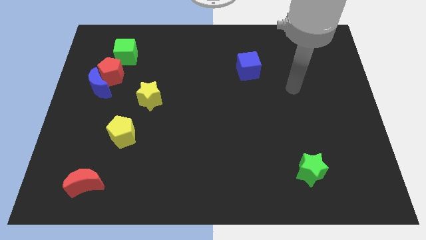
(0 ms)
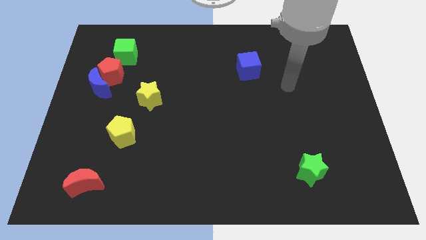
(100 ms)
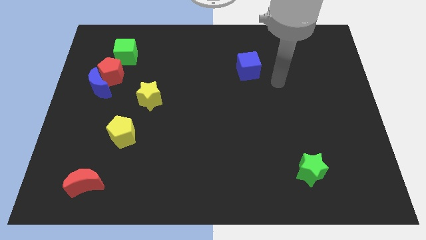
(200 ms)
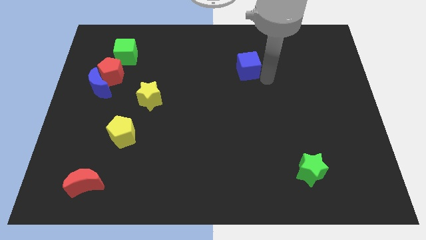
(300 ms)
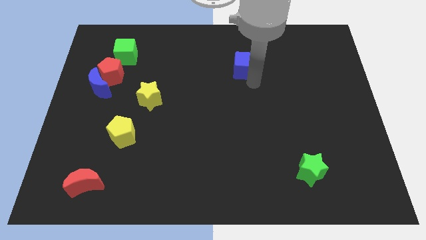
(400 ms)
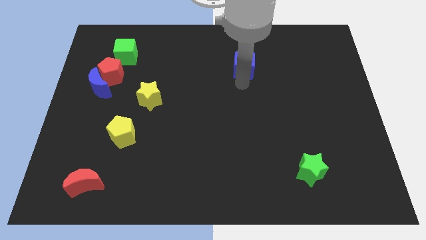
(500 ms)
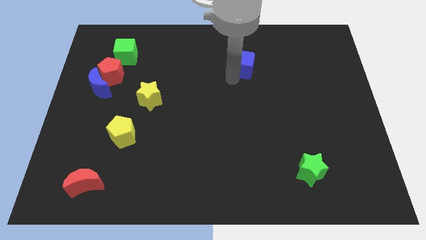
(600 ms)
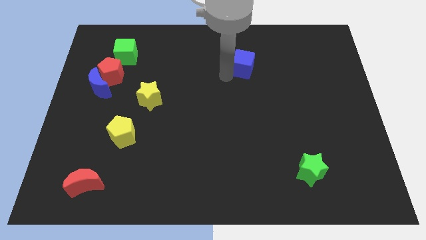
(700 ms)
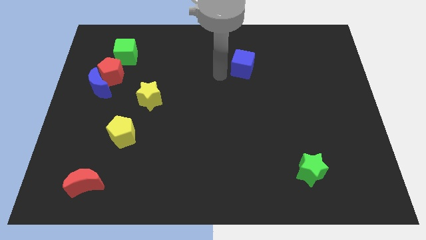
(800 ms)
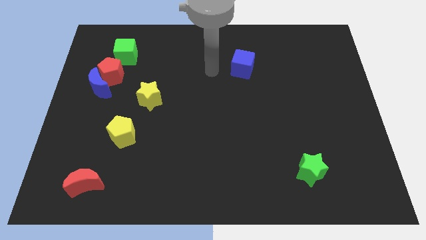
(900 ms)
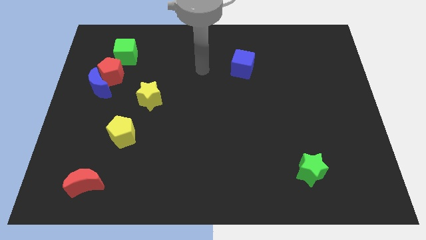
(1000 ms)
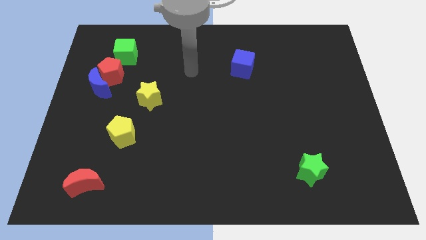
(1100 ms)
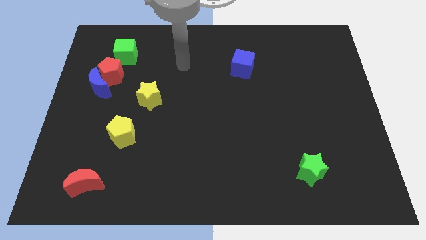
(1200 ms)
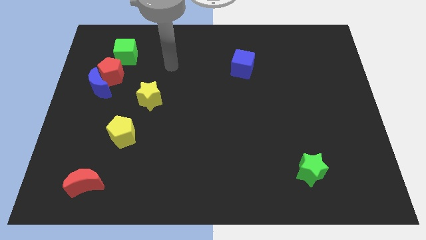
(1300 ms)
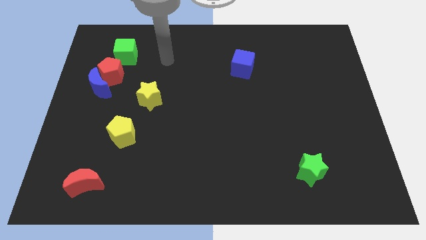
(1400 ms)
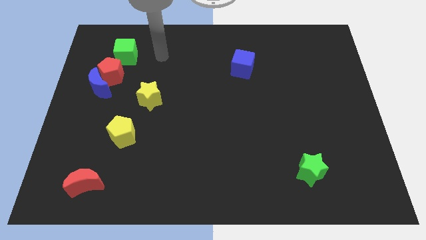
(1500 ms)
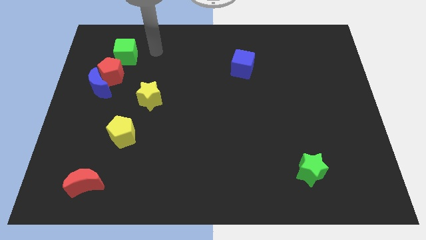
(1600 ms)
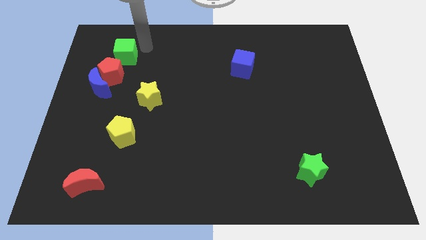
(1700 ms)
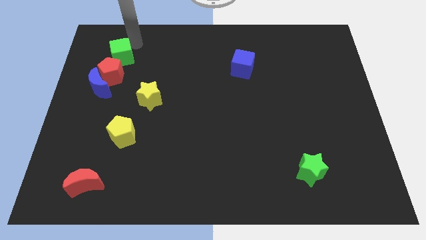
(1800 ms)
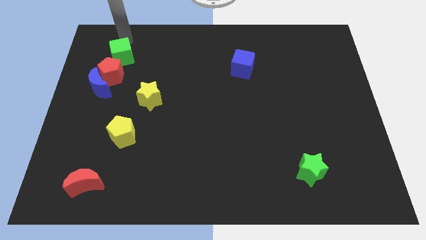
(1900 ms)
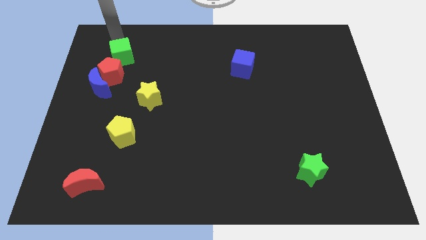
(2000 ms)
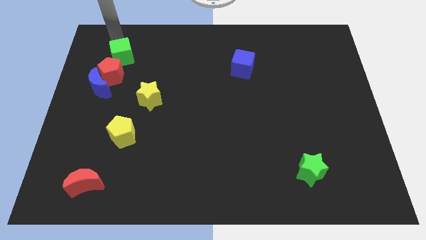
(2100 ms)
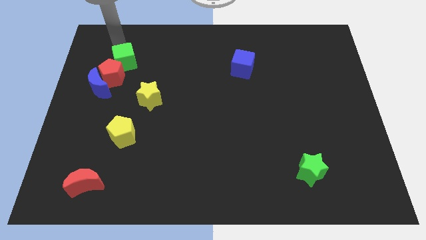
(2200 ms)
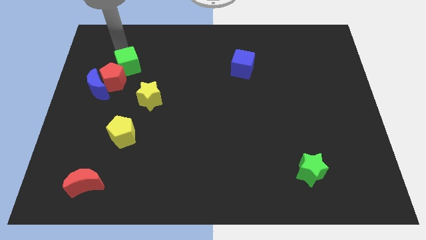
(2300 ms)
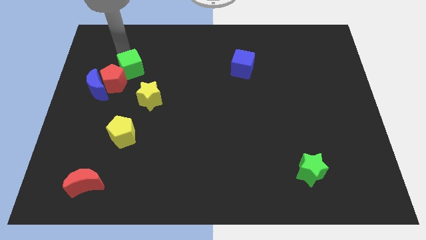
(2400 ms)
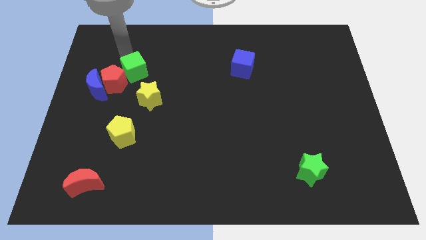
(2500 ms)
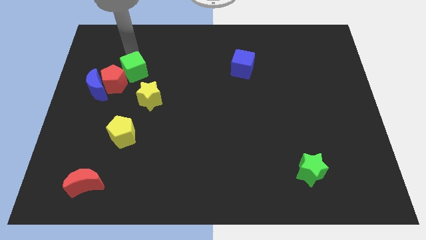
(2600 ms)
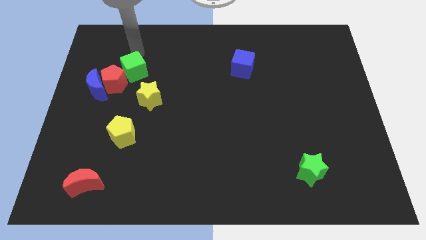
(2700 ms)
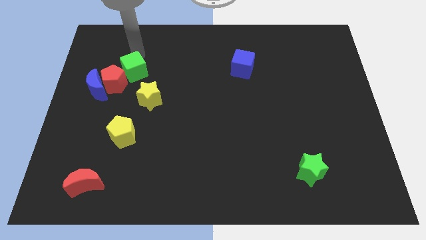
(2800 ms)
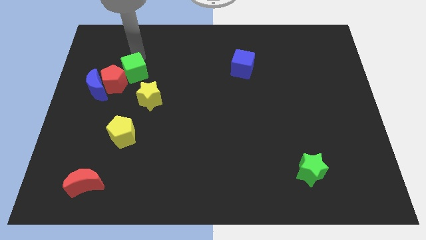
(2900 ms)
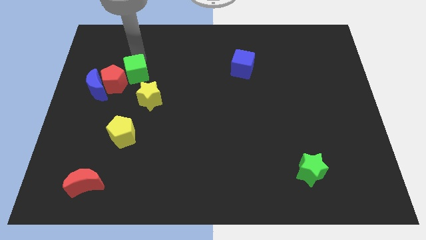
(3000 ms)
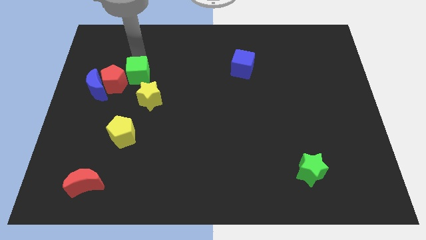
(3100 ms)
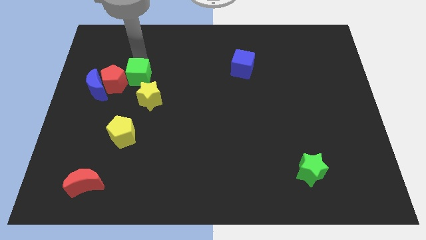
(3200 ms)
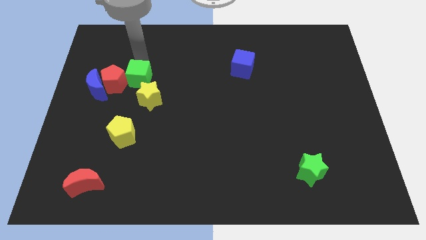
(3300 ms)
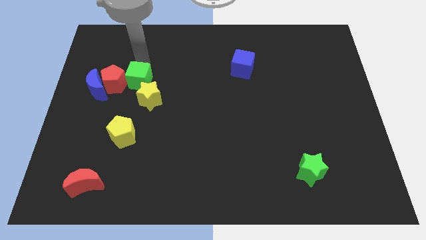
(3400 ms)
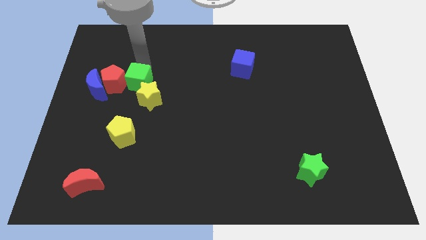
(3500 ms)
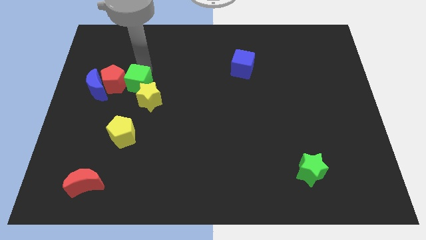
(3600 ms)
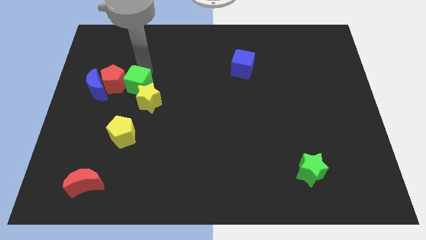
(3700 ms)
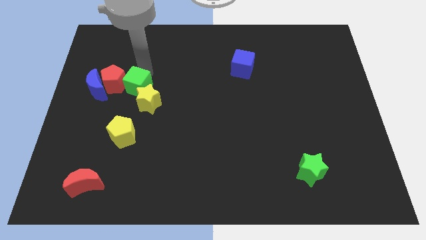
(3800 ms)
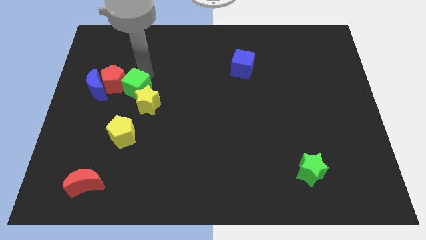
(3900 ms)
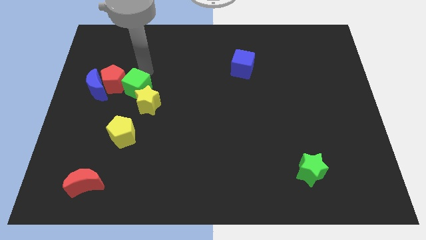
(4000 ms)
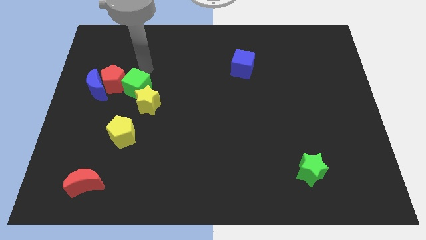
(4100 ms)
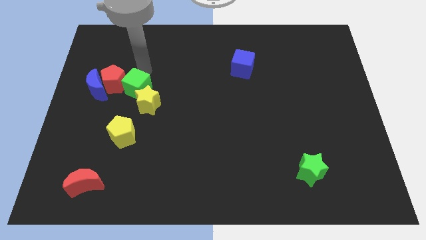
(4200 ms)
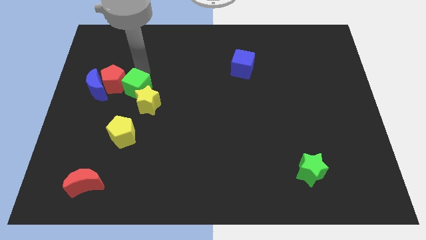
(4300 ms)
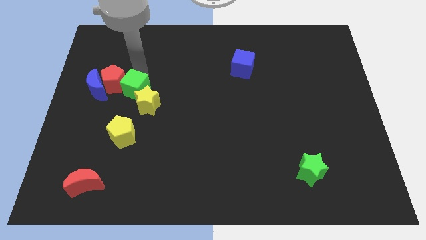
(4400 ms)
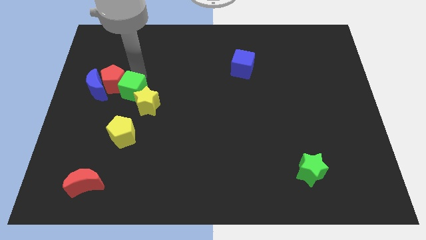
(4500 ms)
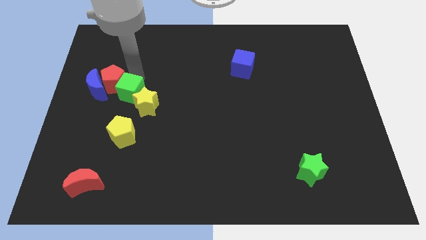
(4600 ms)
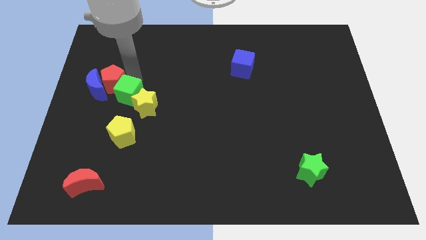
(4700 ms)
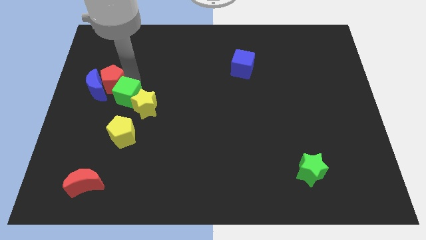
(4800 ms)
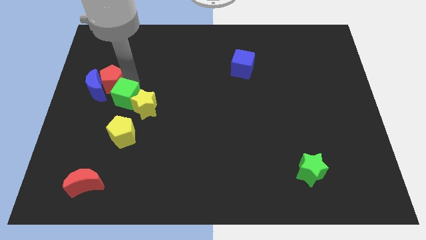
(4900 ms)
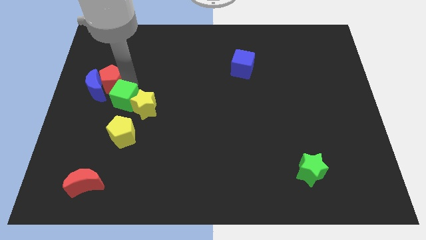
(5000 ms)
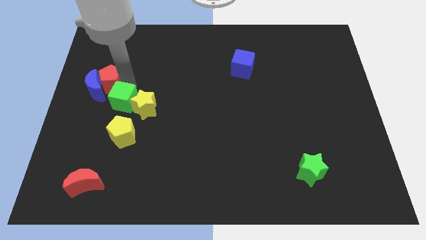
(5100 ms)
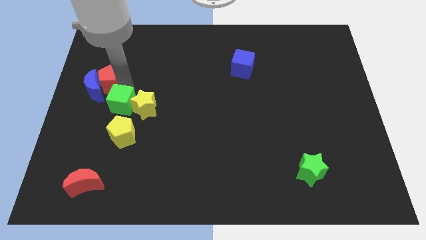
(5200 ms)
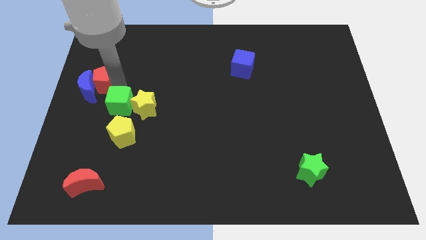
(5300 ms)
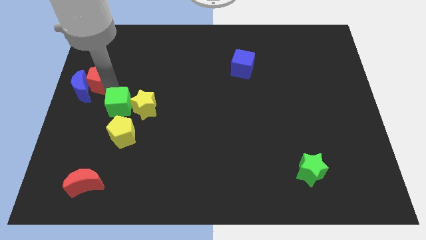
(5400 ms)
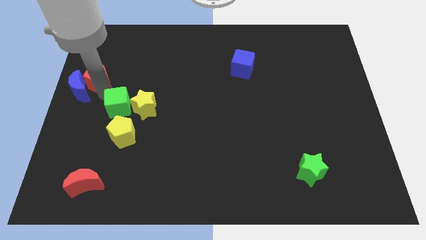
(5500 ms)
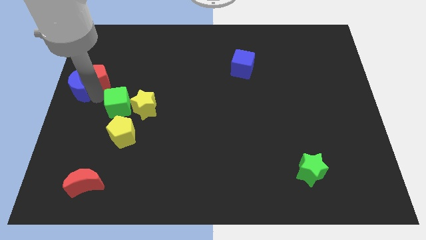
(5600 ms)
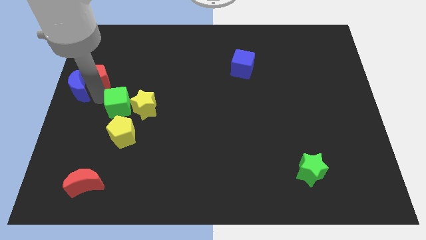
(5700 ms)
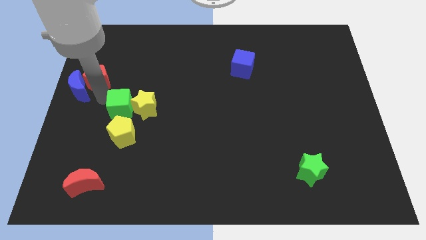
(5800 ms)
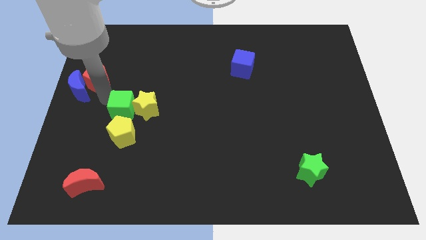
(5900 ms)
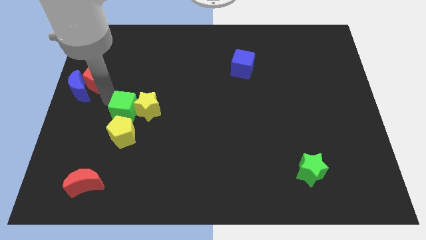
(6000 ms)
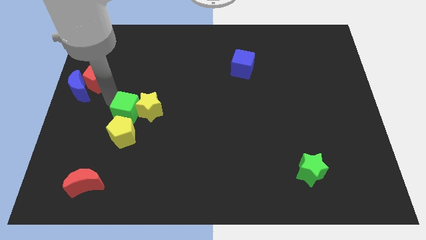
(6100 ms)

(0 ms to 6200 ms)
move the green cube to the top right of the yellow pentagon

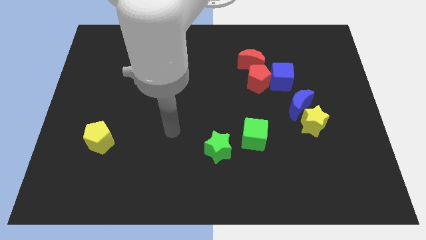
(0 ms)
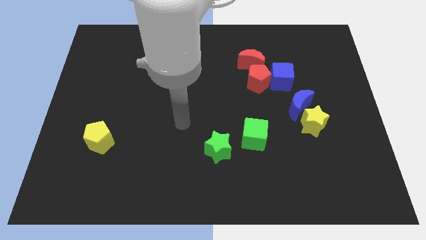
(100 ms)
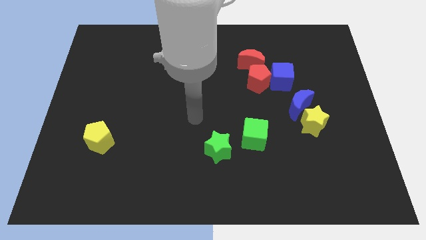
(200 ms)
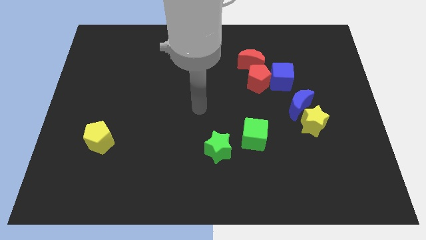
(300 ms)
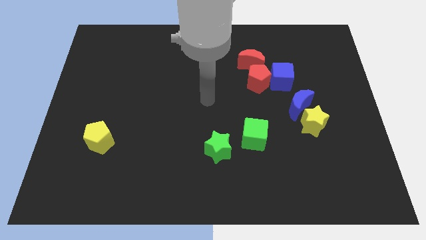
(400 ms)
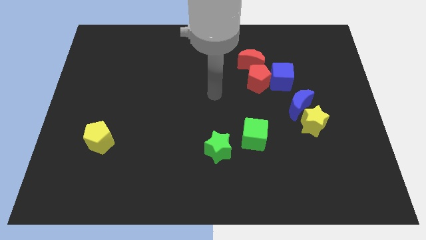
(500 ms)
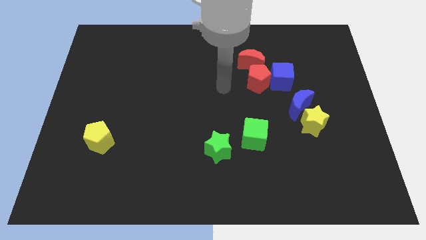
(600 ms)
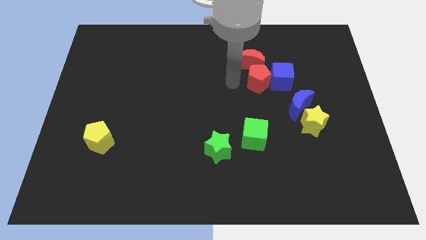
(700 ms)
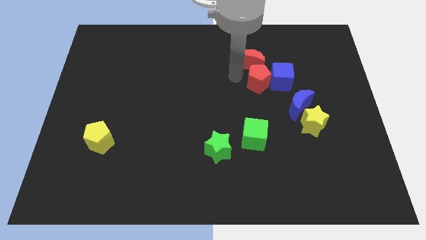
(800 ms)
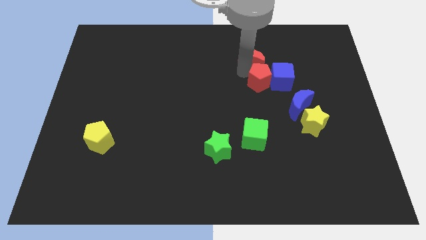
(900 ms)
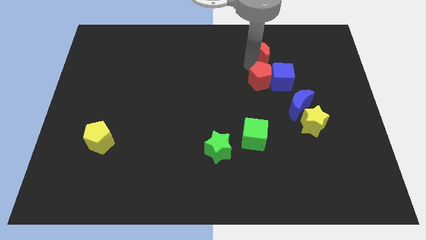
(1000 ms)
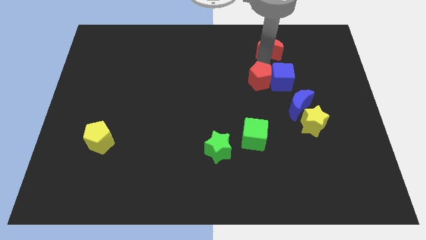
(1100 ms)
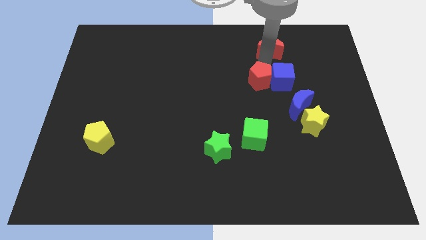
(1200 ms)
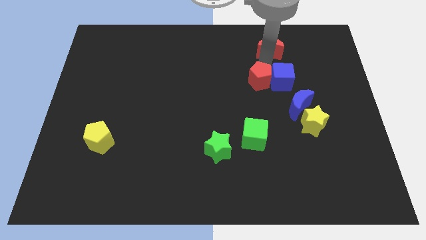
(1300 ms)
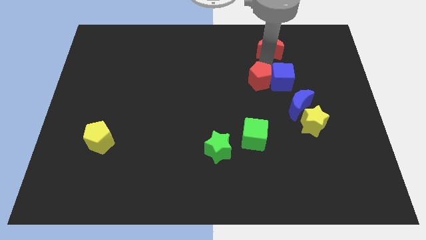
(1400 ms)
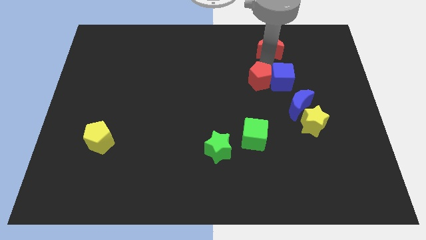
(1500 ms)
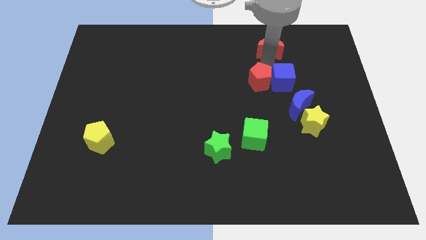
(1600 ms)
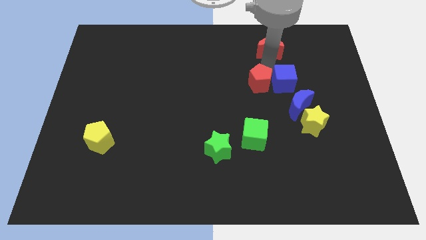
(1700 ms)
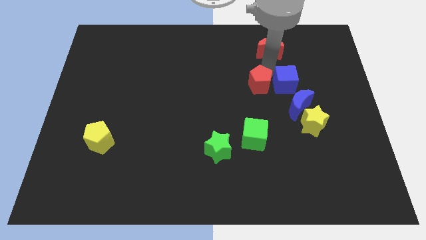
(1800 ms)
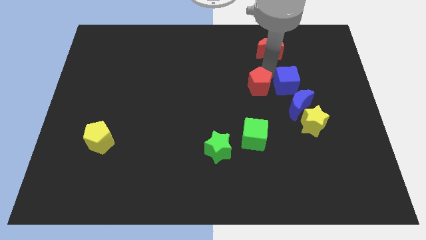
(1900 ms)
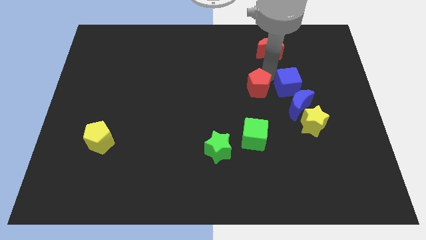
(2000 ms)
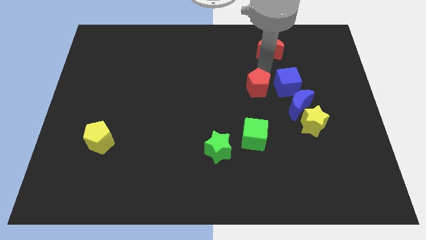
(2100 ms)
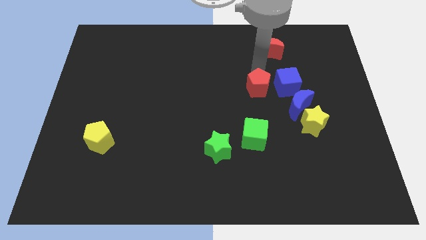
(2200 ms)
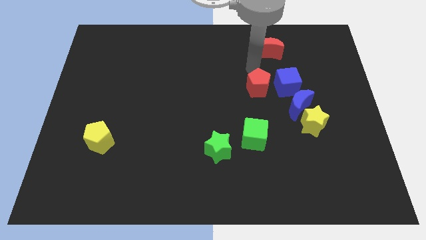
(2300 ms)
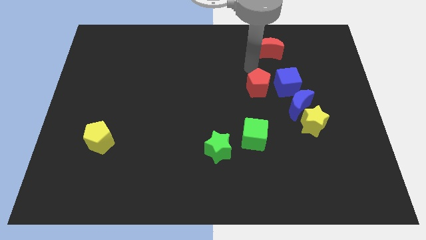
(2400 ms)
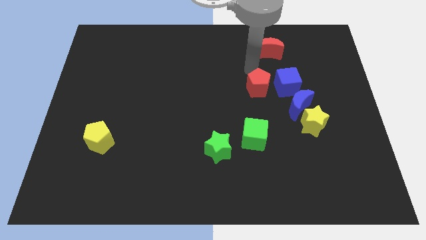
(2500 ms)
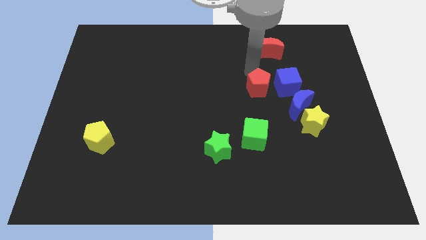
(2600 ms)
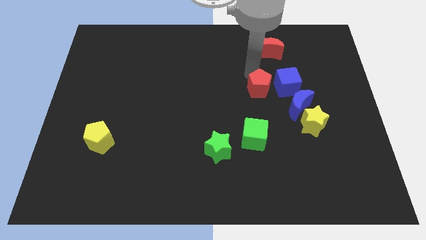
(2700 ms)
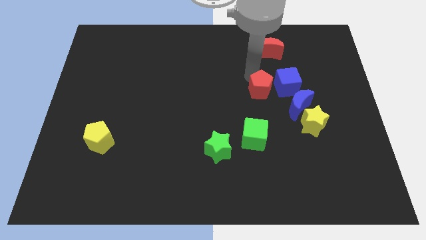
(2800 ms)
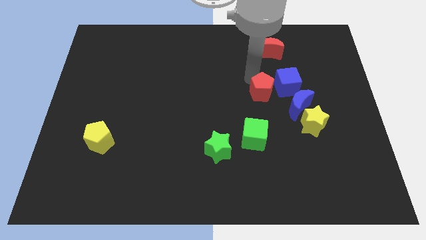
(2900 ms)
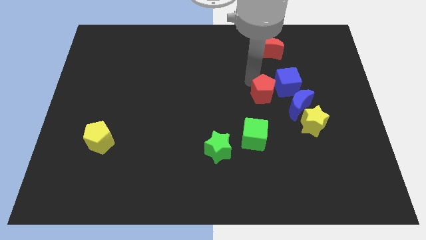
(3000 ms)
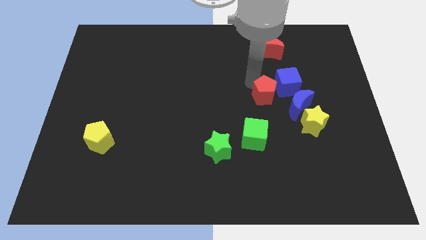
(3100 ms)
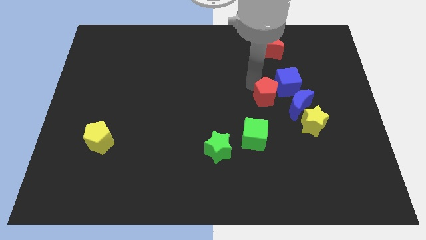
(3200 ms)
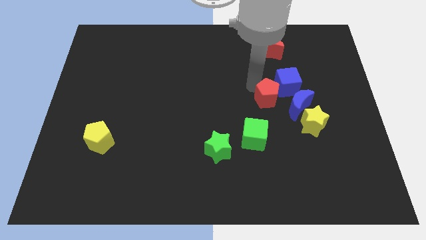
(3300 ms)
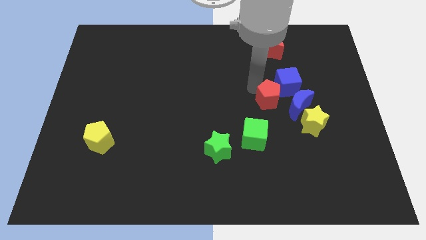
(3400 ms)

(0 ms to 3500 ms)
push the red pentagon below the blue cube
